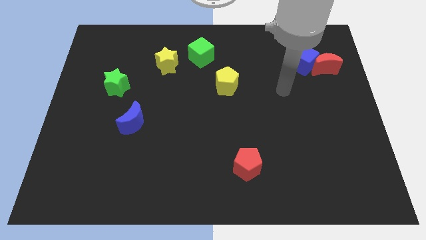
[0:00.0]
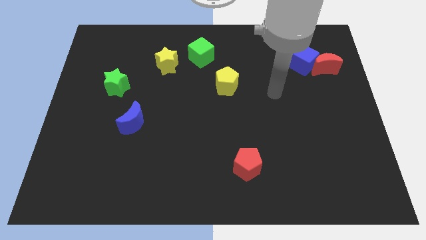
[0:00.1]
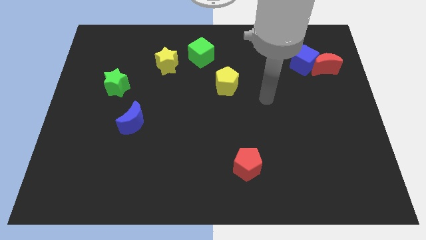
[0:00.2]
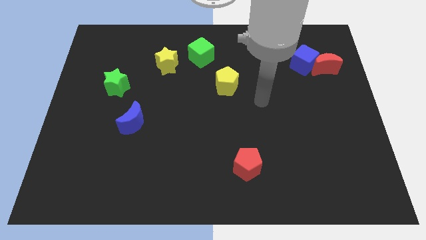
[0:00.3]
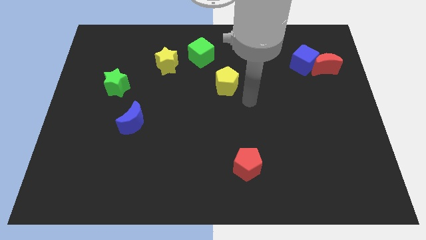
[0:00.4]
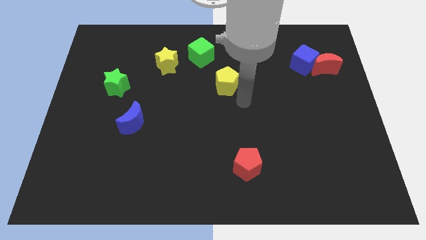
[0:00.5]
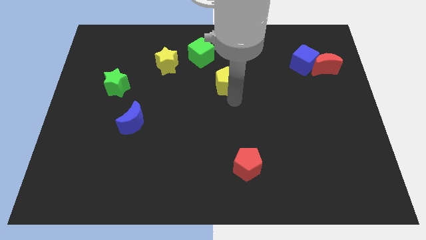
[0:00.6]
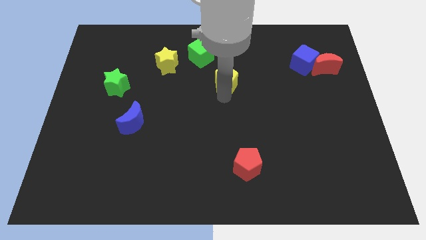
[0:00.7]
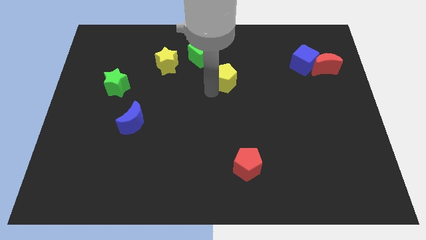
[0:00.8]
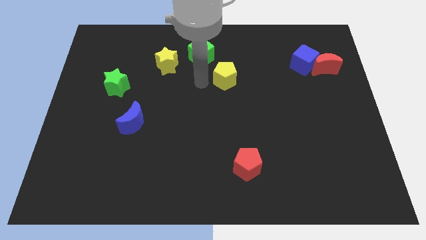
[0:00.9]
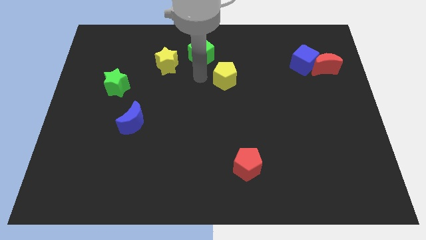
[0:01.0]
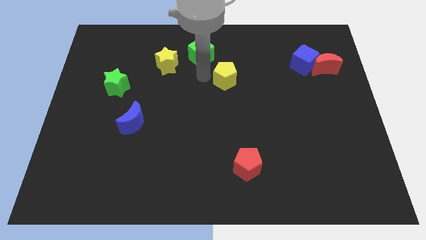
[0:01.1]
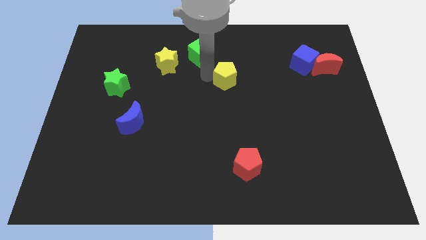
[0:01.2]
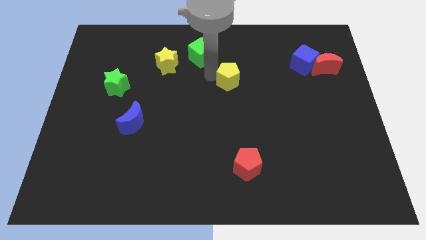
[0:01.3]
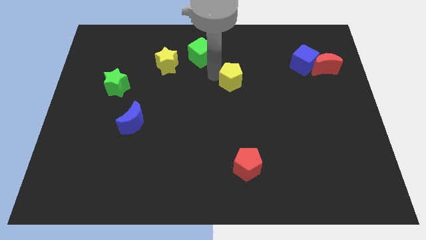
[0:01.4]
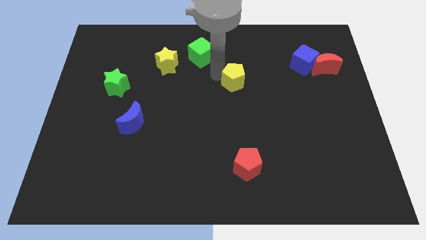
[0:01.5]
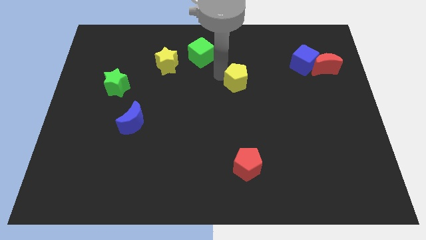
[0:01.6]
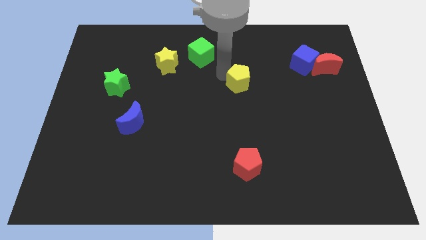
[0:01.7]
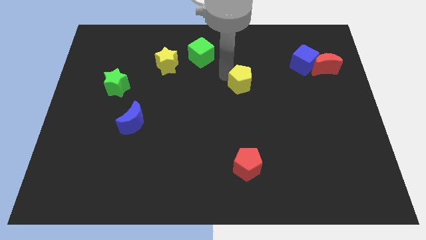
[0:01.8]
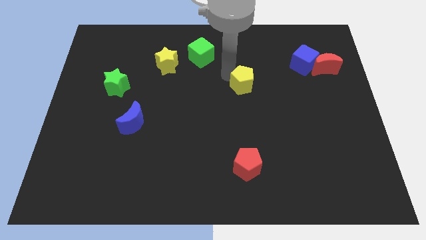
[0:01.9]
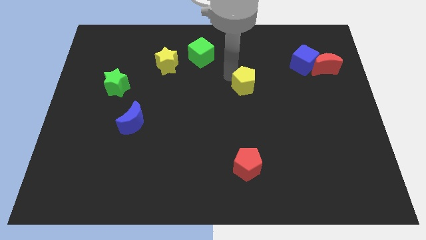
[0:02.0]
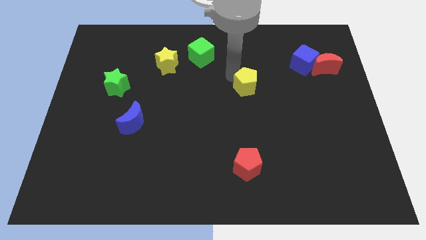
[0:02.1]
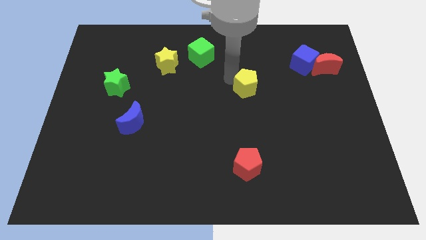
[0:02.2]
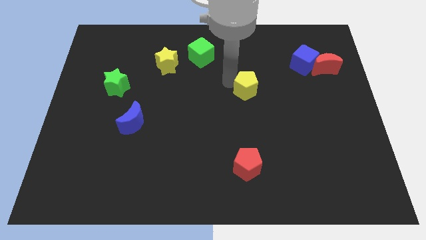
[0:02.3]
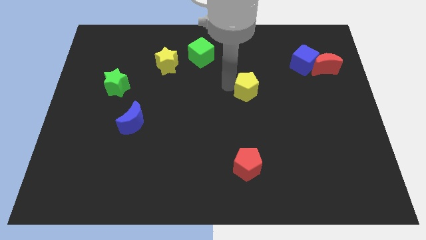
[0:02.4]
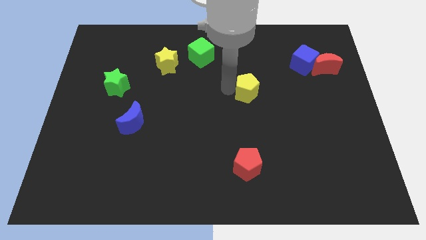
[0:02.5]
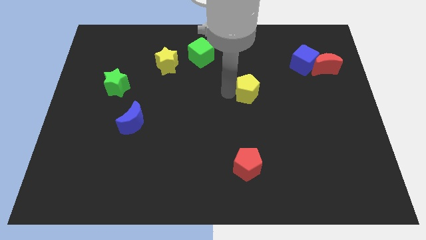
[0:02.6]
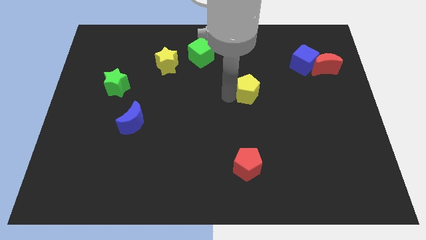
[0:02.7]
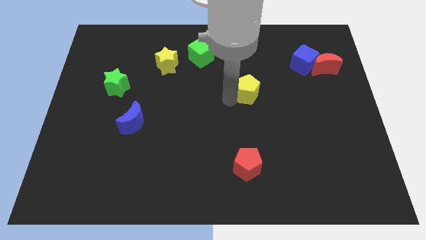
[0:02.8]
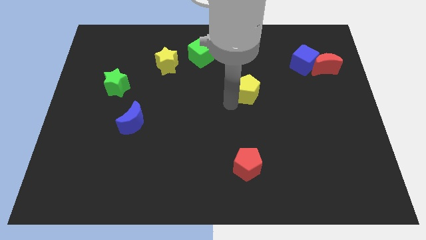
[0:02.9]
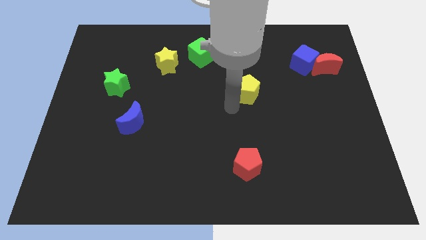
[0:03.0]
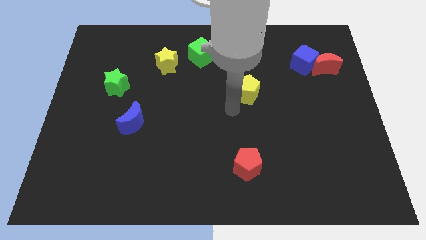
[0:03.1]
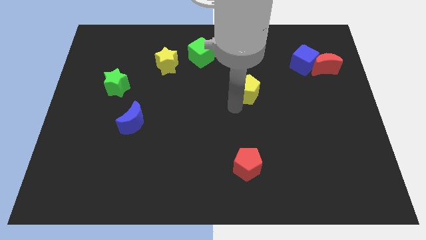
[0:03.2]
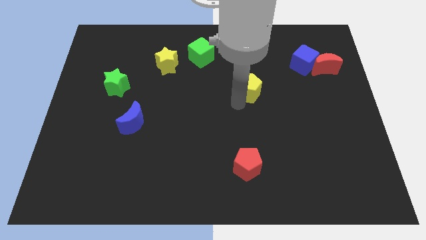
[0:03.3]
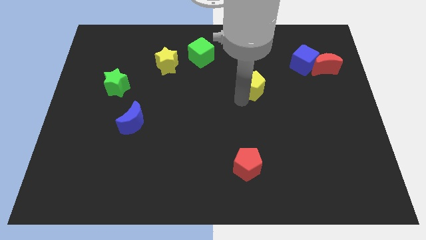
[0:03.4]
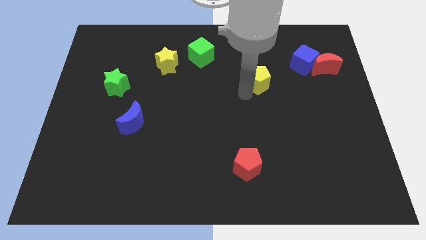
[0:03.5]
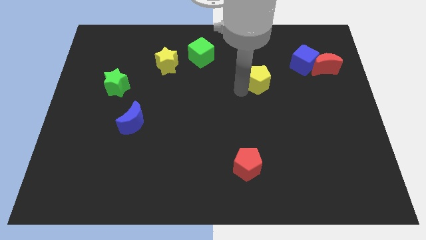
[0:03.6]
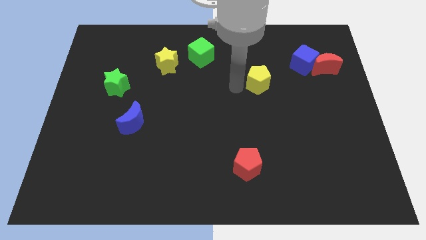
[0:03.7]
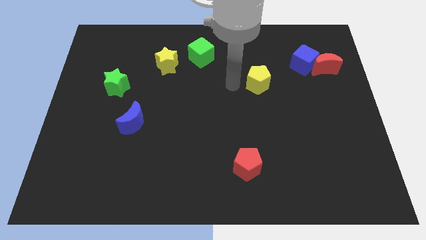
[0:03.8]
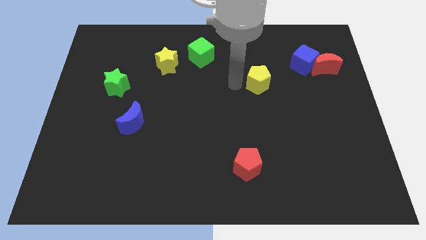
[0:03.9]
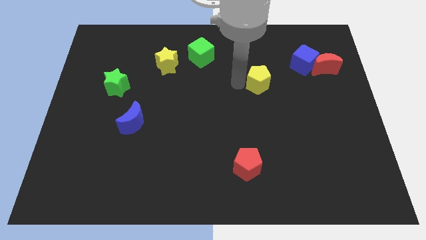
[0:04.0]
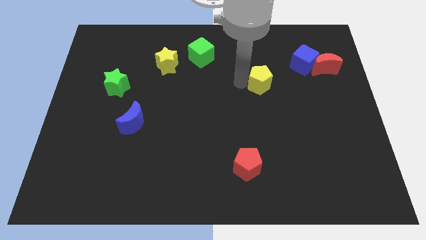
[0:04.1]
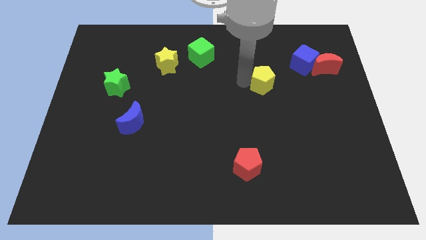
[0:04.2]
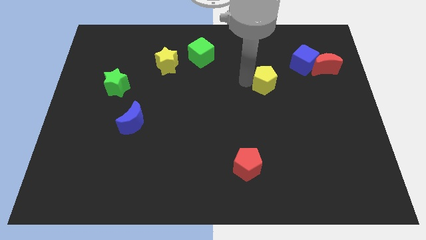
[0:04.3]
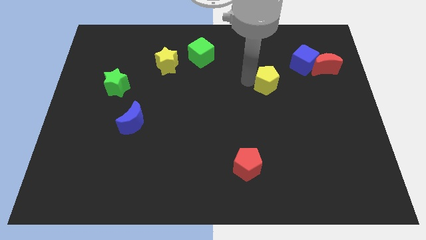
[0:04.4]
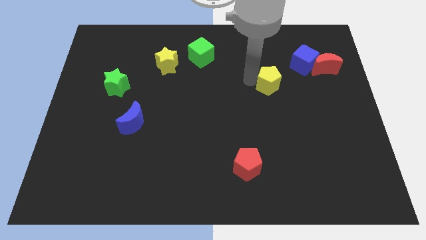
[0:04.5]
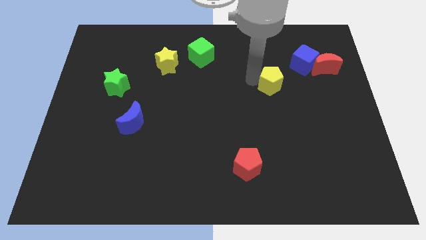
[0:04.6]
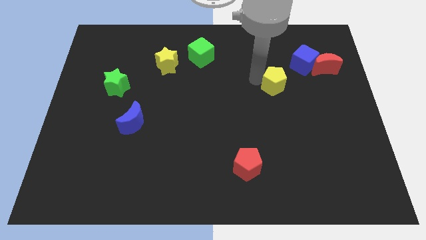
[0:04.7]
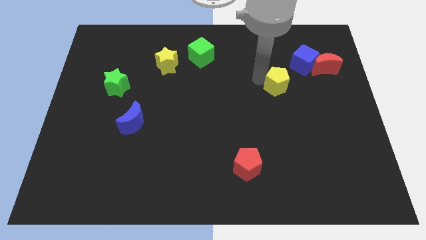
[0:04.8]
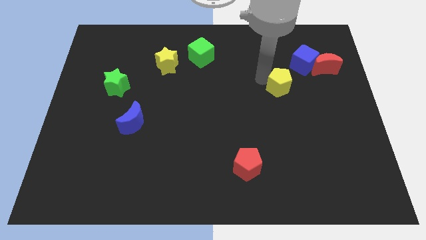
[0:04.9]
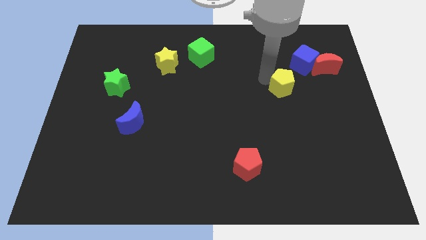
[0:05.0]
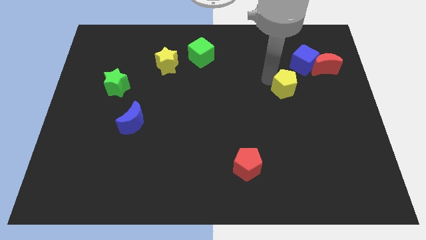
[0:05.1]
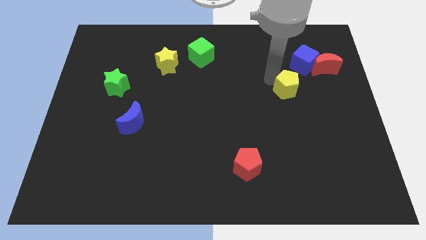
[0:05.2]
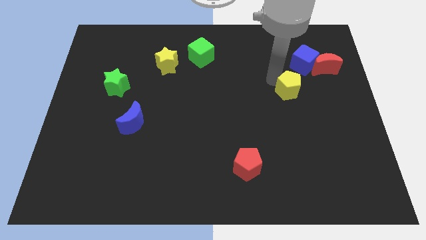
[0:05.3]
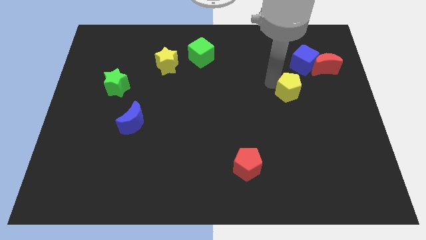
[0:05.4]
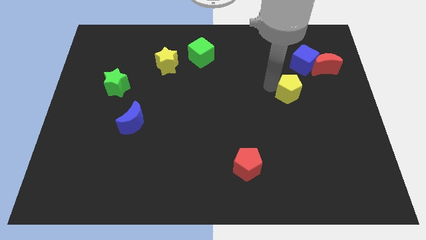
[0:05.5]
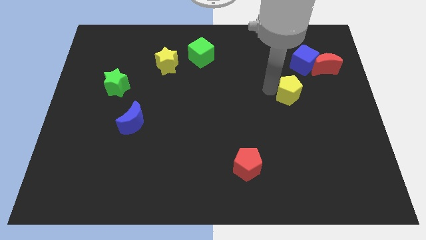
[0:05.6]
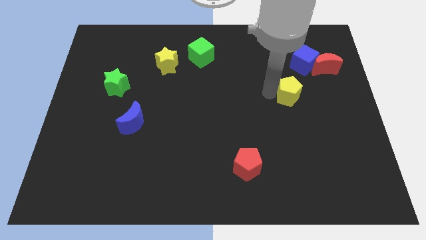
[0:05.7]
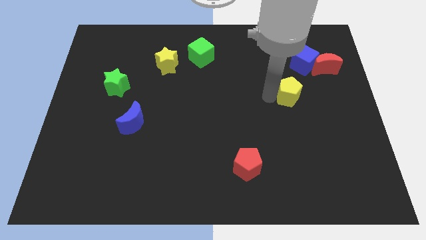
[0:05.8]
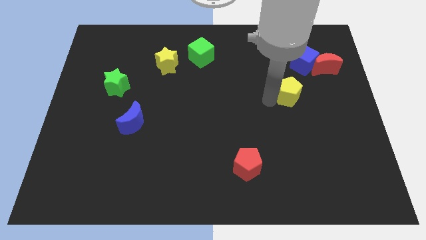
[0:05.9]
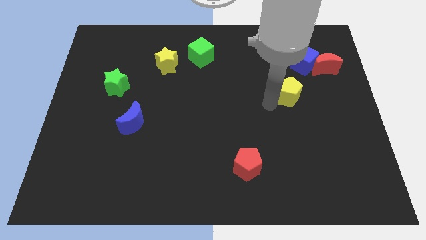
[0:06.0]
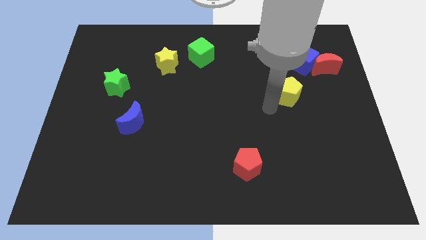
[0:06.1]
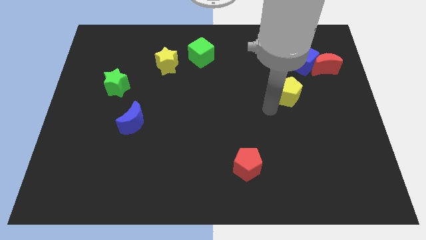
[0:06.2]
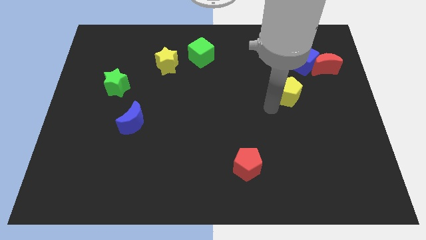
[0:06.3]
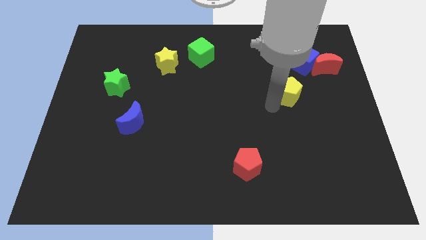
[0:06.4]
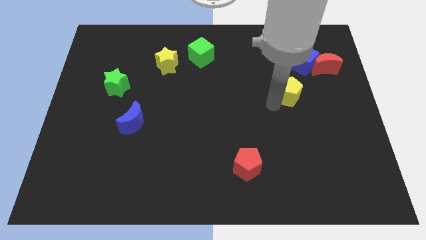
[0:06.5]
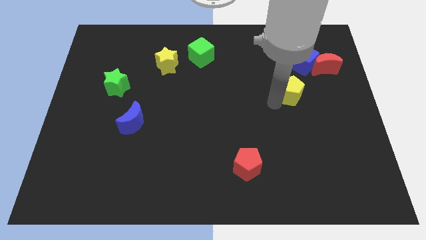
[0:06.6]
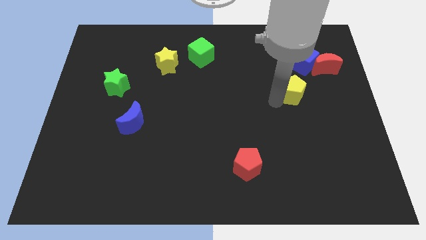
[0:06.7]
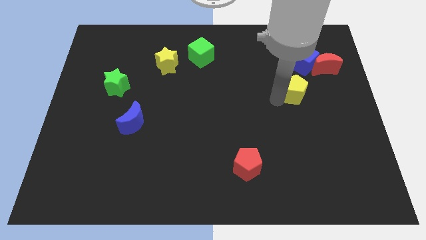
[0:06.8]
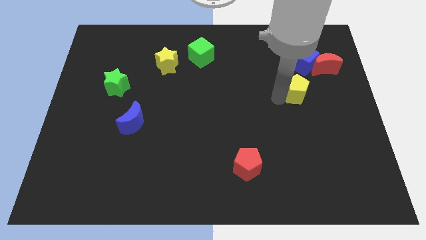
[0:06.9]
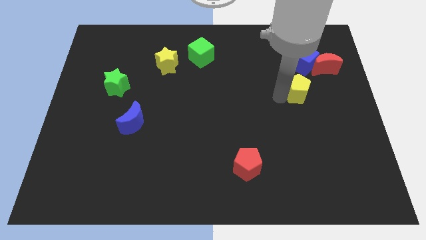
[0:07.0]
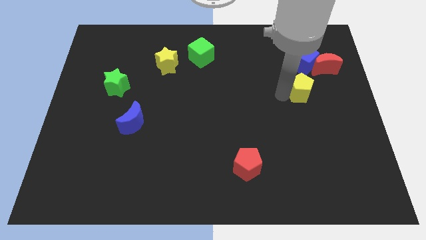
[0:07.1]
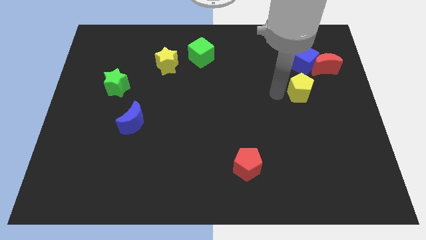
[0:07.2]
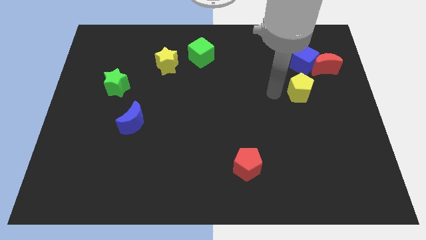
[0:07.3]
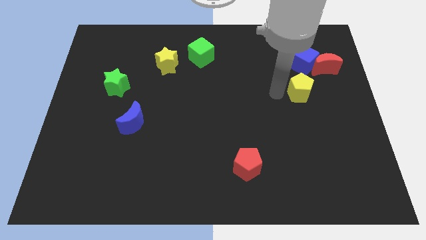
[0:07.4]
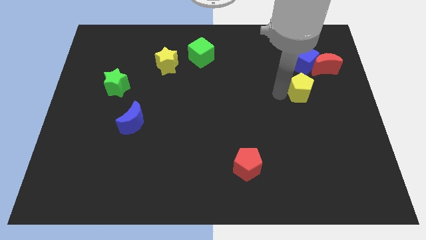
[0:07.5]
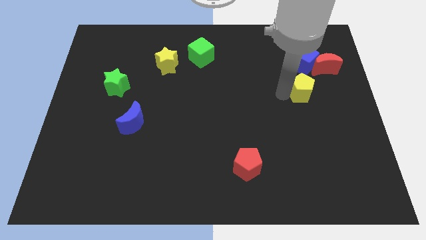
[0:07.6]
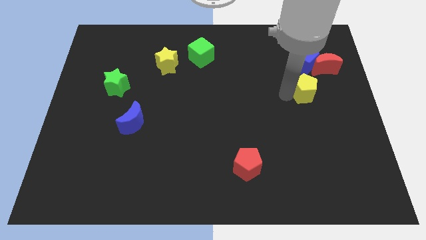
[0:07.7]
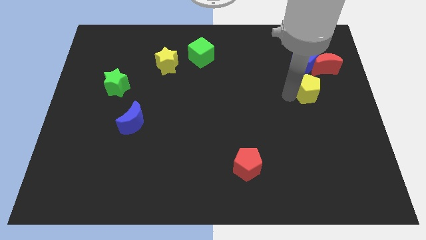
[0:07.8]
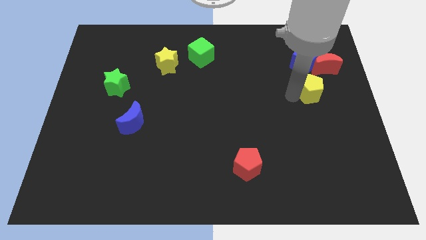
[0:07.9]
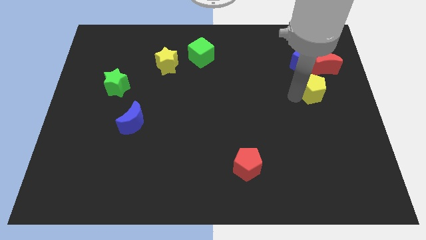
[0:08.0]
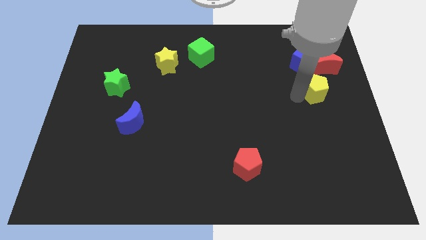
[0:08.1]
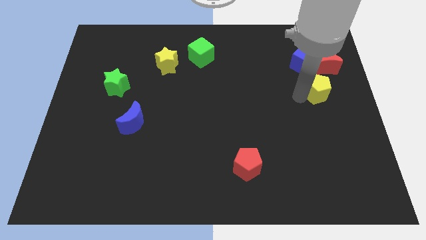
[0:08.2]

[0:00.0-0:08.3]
move the yellow pentagon to the right side
